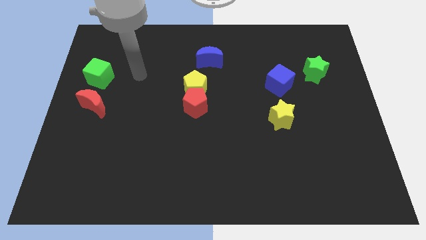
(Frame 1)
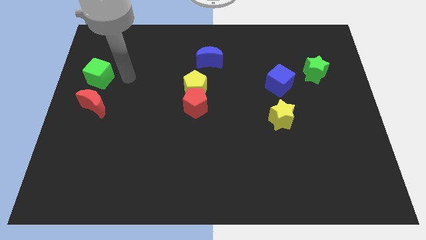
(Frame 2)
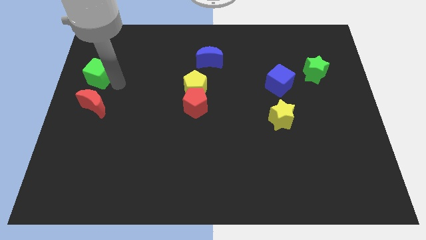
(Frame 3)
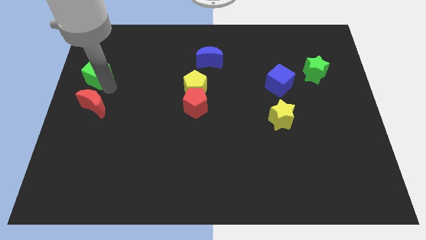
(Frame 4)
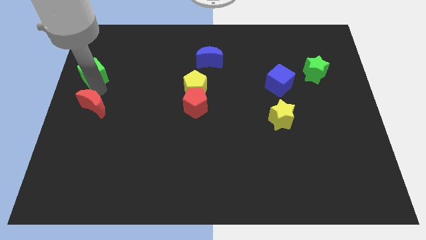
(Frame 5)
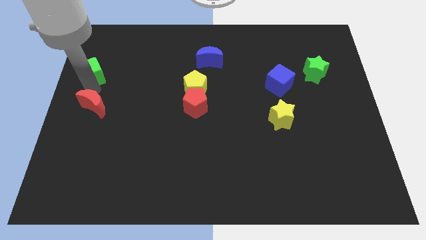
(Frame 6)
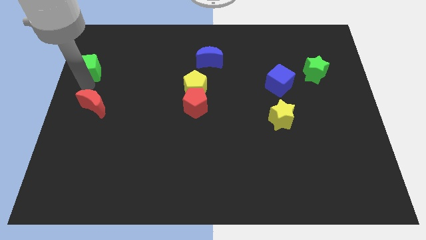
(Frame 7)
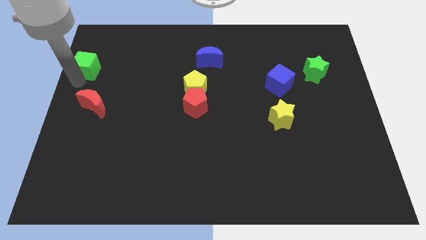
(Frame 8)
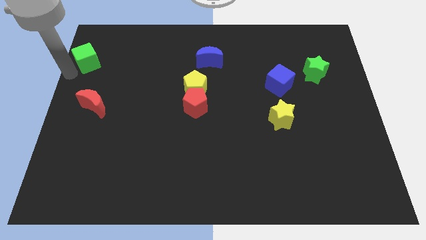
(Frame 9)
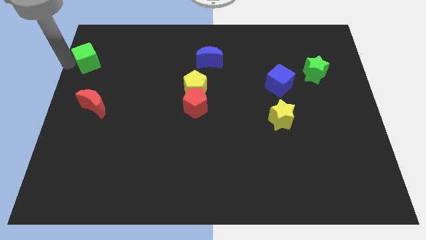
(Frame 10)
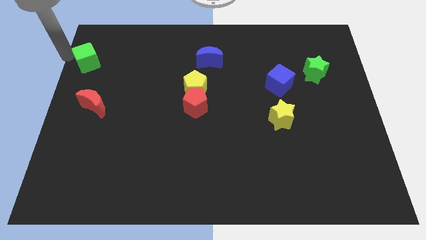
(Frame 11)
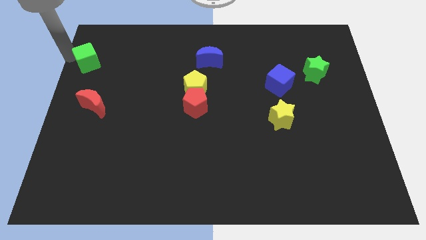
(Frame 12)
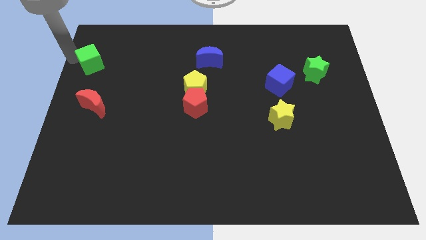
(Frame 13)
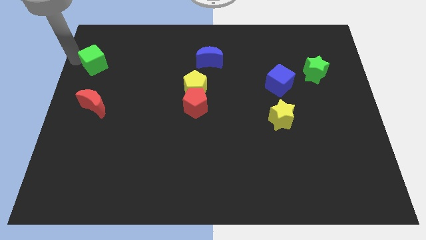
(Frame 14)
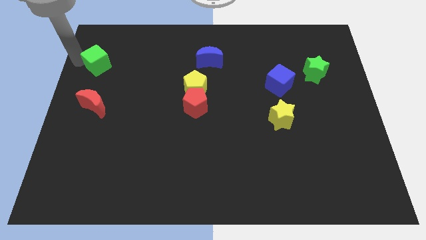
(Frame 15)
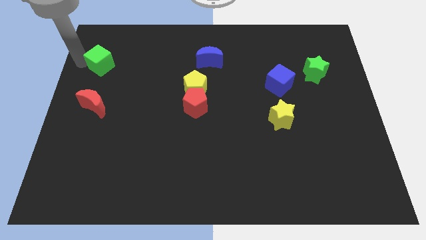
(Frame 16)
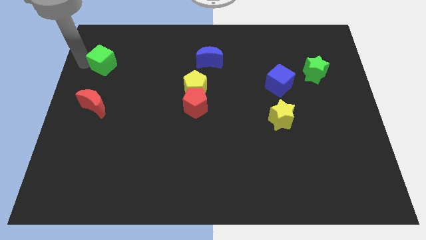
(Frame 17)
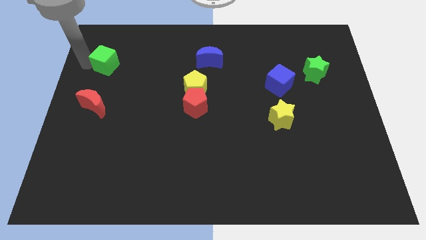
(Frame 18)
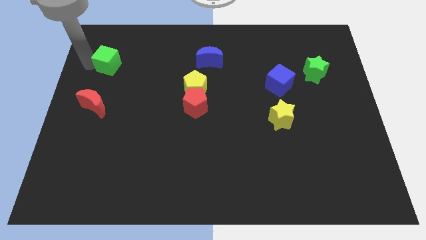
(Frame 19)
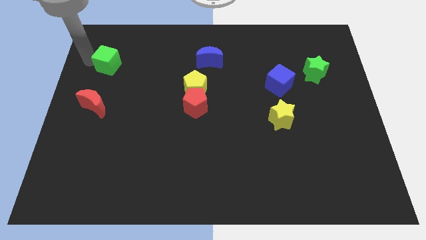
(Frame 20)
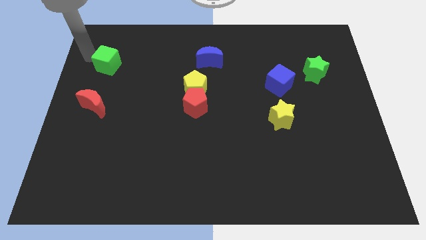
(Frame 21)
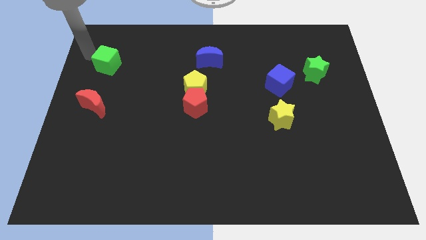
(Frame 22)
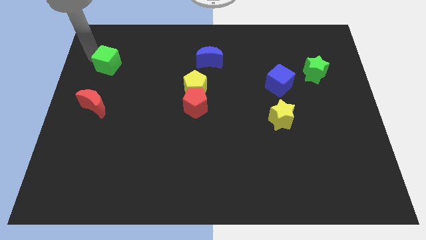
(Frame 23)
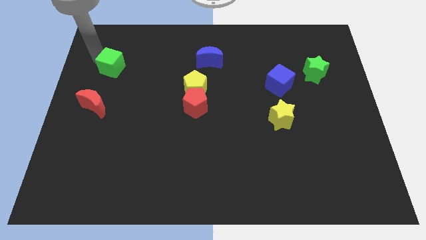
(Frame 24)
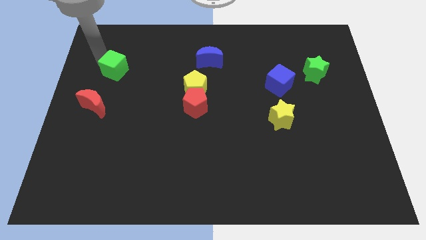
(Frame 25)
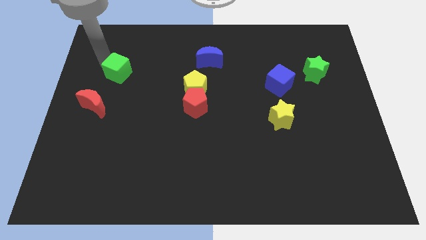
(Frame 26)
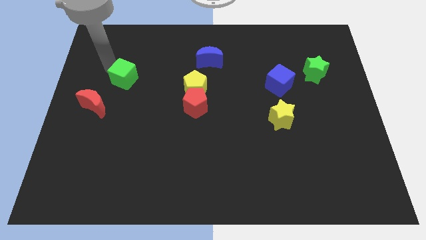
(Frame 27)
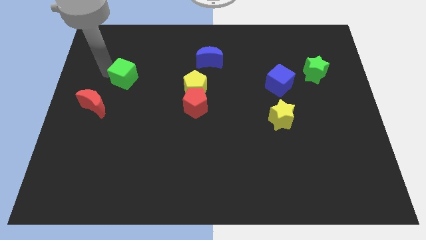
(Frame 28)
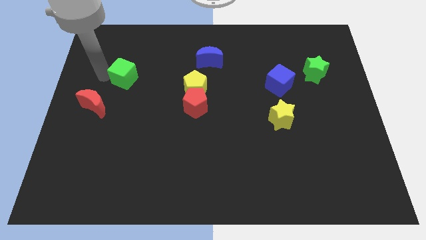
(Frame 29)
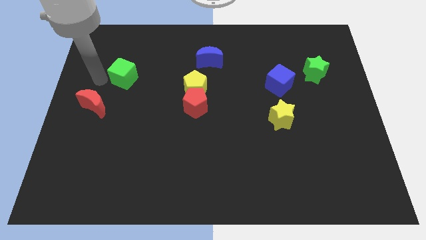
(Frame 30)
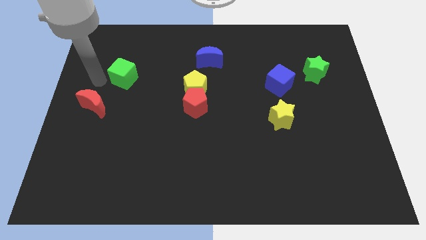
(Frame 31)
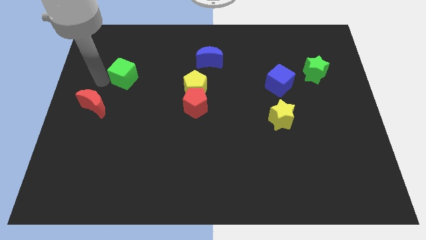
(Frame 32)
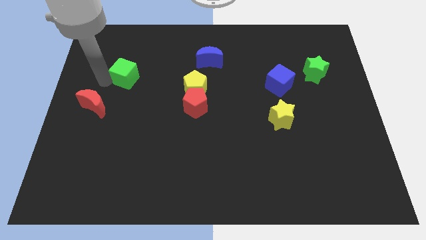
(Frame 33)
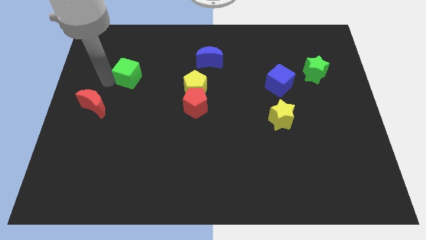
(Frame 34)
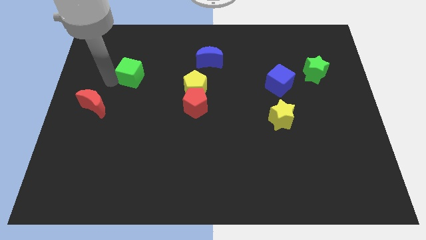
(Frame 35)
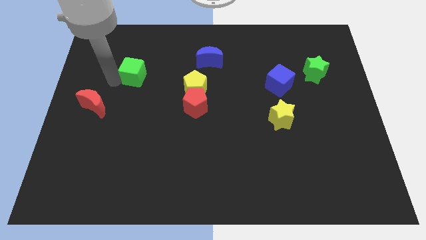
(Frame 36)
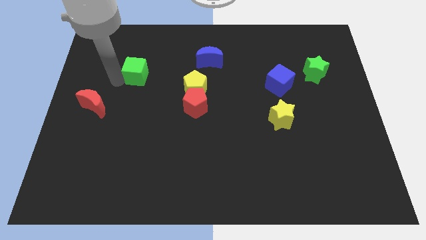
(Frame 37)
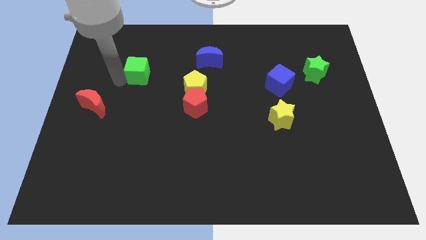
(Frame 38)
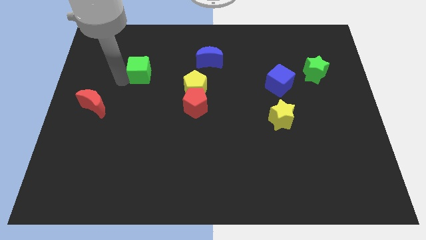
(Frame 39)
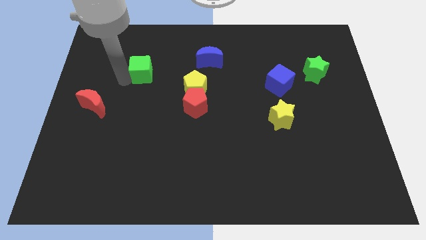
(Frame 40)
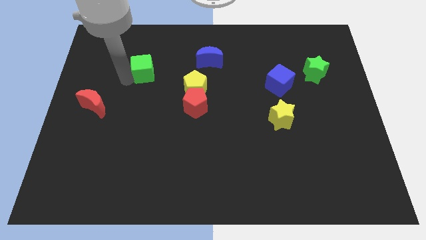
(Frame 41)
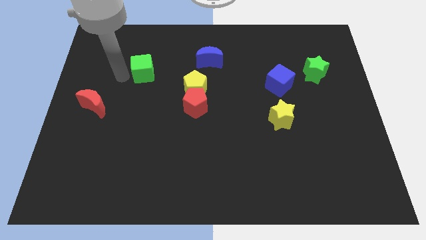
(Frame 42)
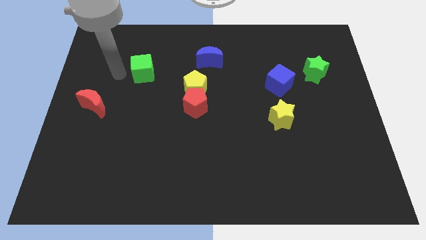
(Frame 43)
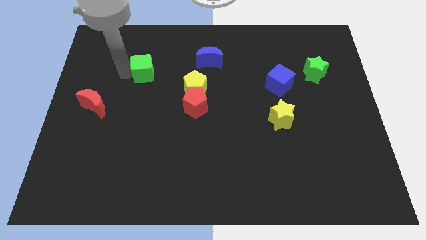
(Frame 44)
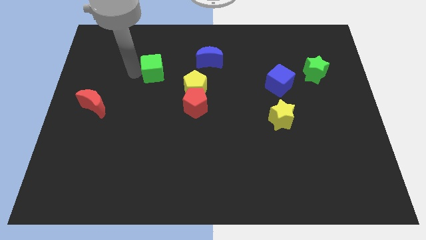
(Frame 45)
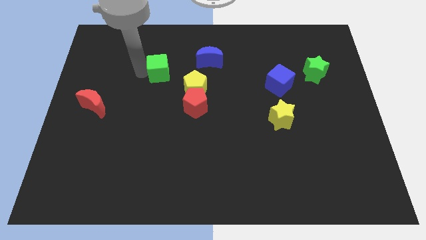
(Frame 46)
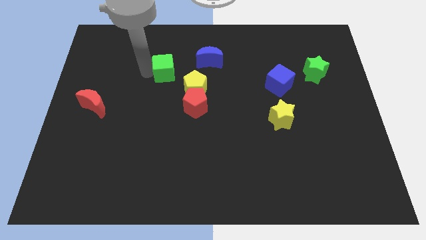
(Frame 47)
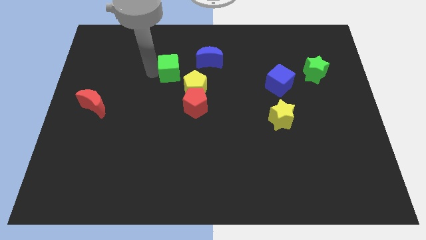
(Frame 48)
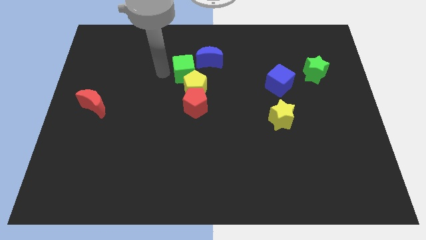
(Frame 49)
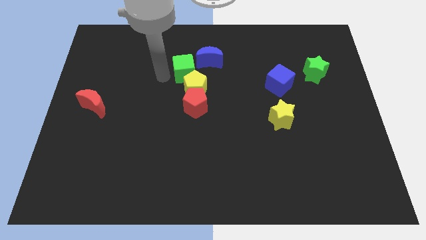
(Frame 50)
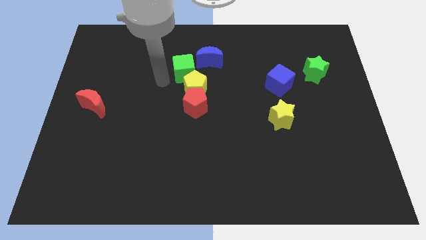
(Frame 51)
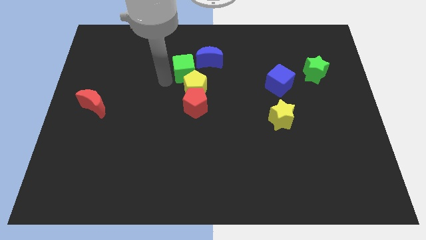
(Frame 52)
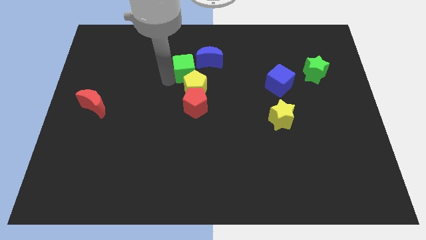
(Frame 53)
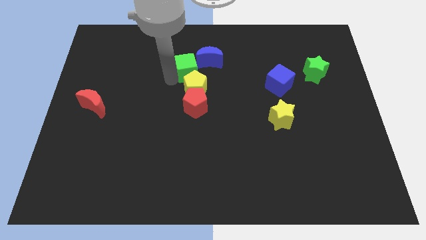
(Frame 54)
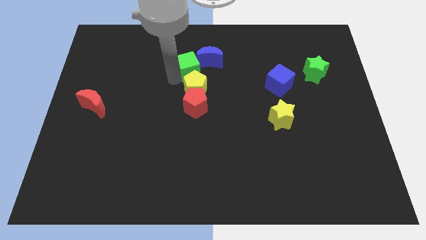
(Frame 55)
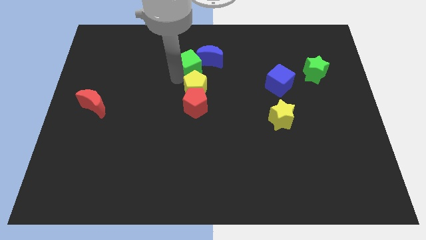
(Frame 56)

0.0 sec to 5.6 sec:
slide the green cube towards the blue moon

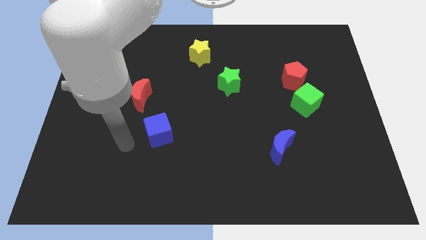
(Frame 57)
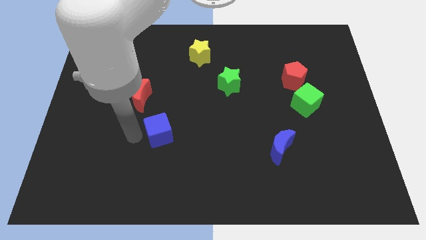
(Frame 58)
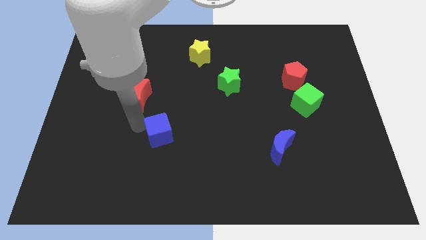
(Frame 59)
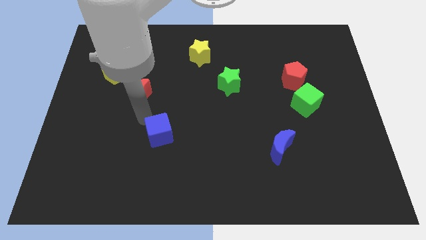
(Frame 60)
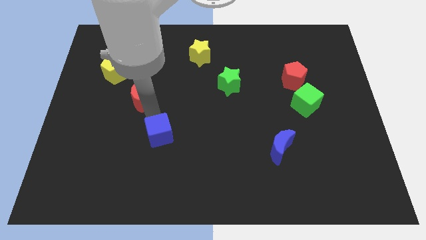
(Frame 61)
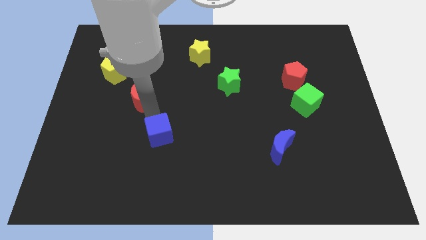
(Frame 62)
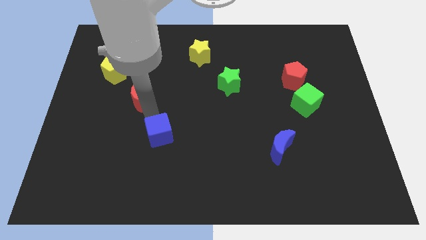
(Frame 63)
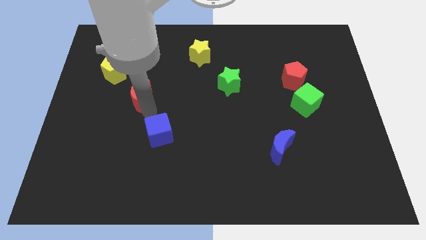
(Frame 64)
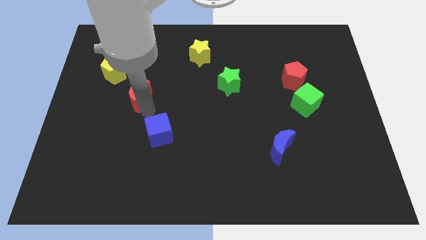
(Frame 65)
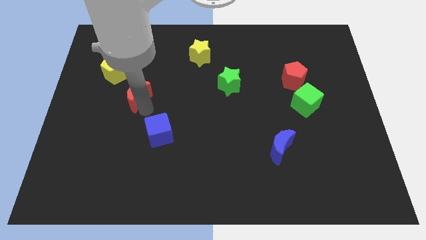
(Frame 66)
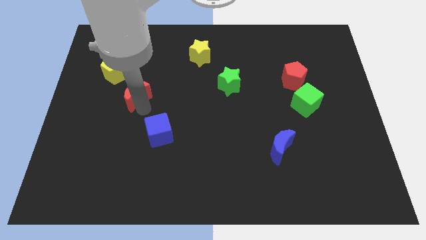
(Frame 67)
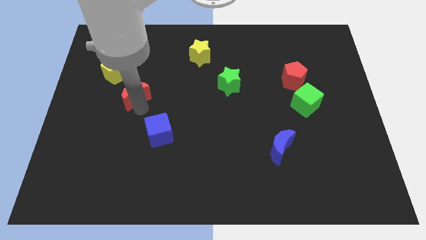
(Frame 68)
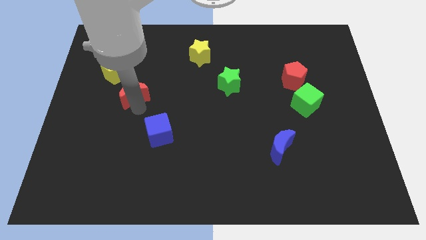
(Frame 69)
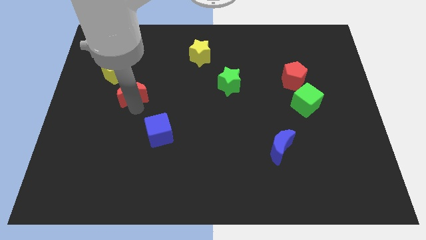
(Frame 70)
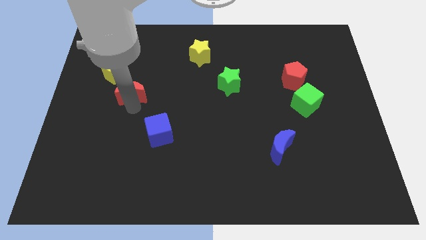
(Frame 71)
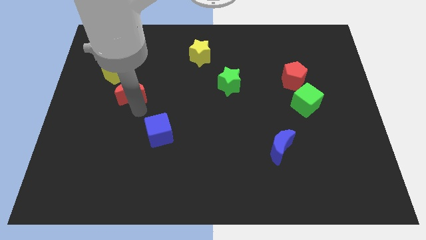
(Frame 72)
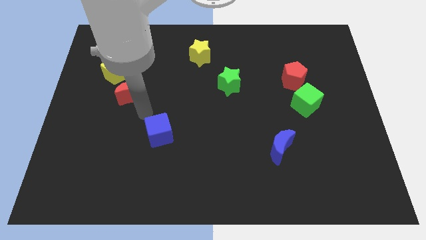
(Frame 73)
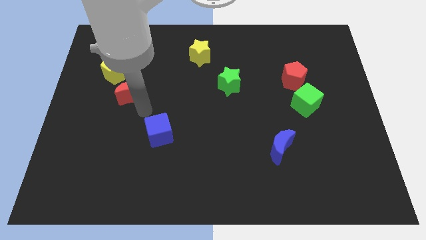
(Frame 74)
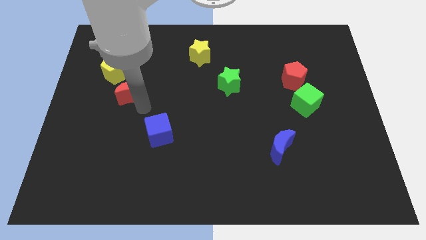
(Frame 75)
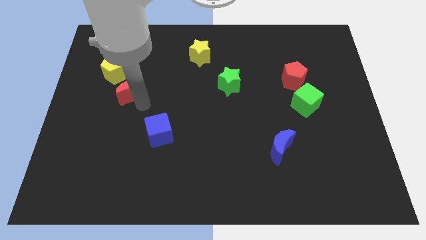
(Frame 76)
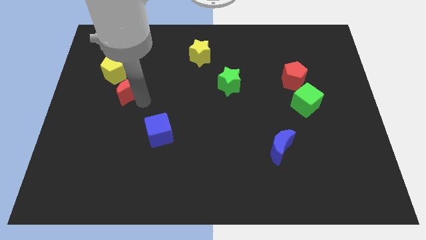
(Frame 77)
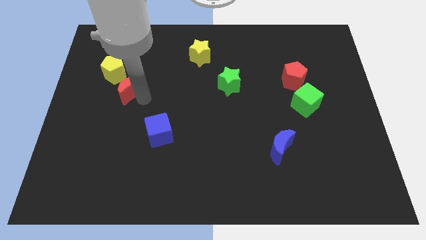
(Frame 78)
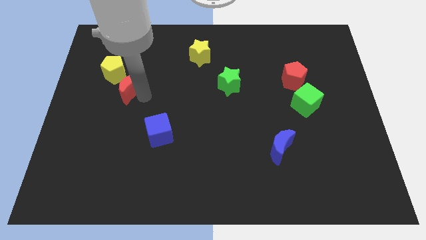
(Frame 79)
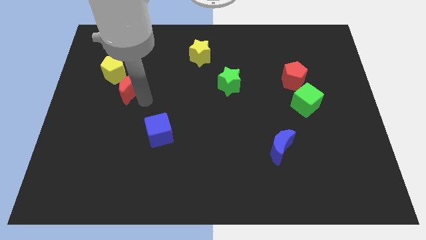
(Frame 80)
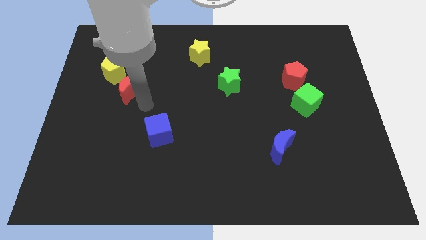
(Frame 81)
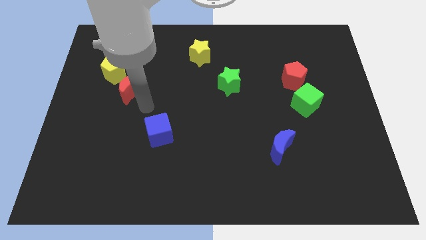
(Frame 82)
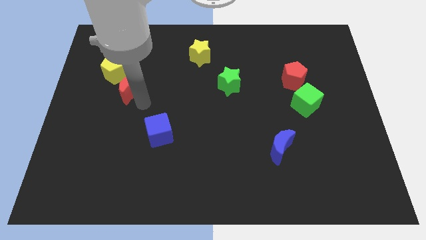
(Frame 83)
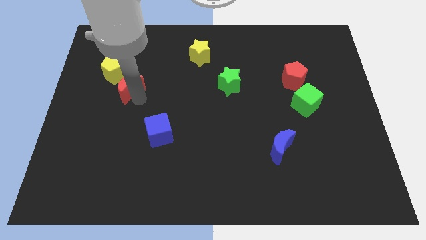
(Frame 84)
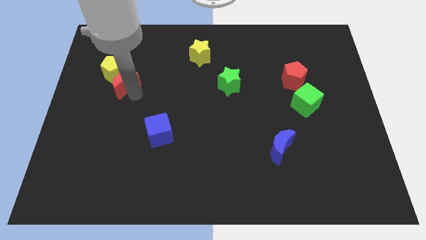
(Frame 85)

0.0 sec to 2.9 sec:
move the red moon close to the yellow pentagon
